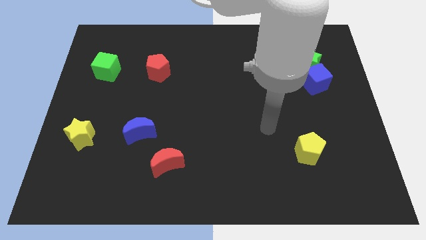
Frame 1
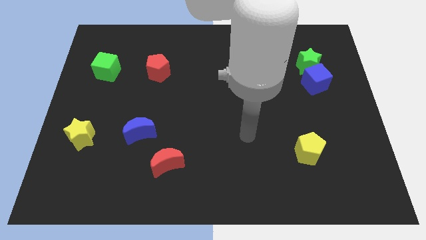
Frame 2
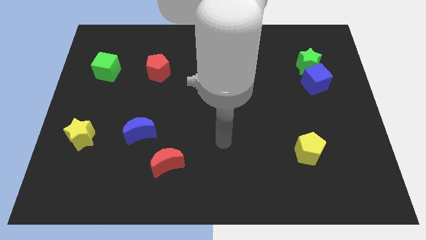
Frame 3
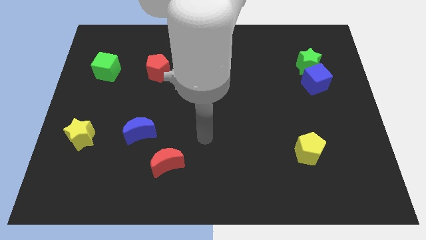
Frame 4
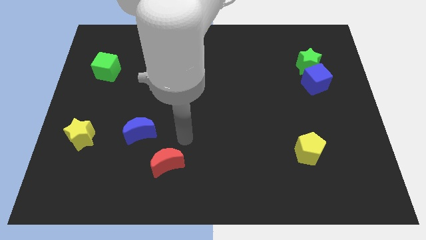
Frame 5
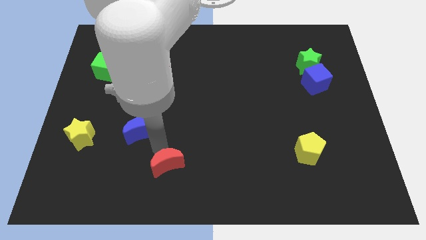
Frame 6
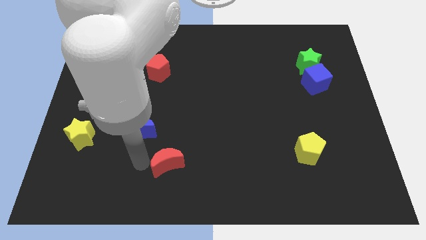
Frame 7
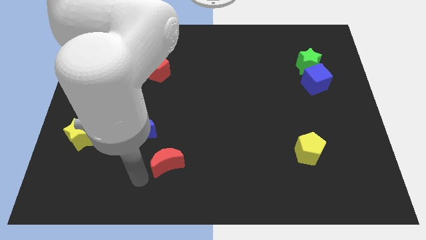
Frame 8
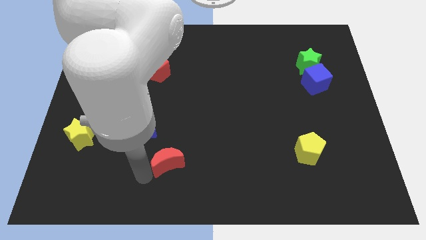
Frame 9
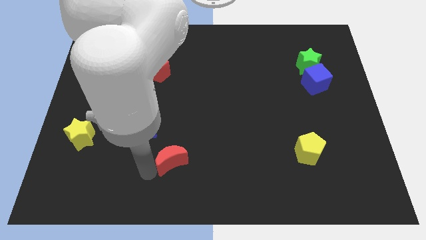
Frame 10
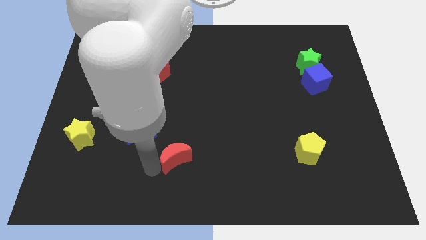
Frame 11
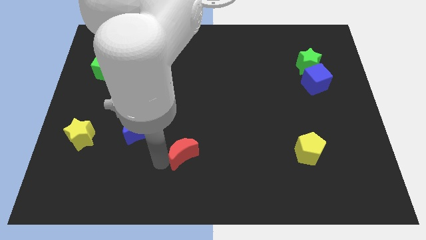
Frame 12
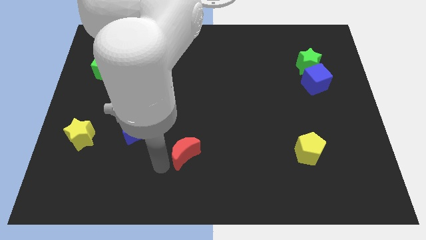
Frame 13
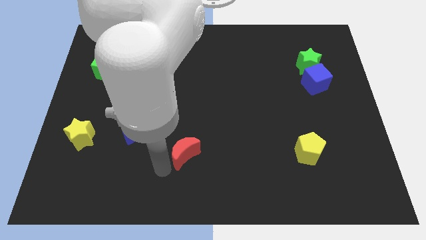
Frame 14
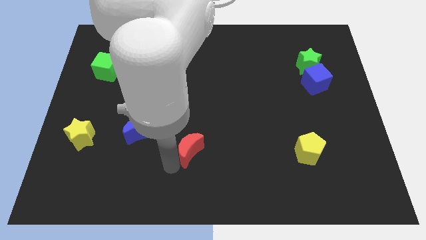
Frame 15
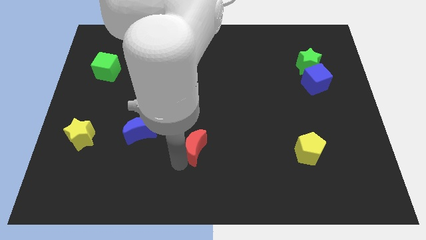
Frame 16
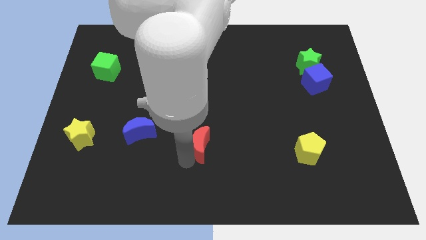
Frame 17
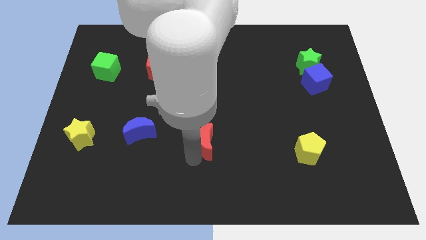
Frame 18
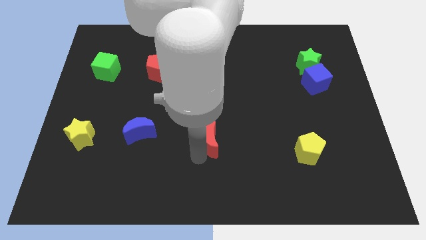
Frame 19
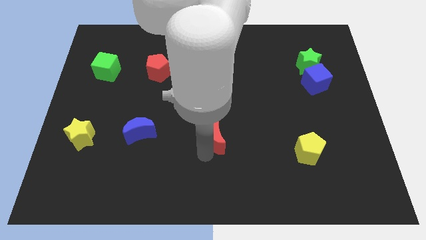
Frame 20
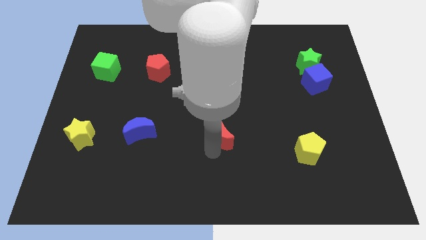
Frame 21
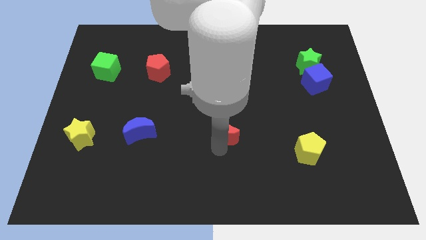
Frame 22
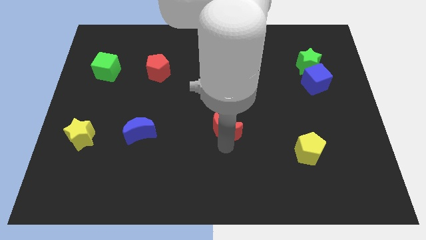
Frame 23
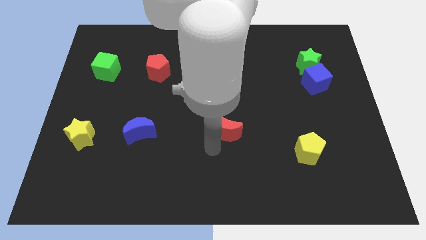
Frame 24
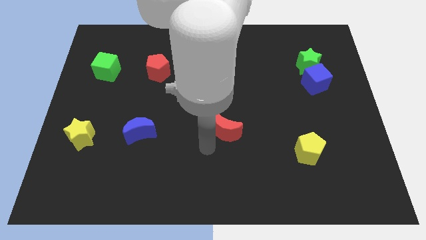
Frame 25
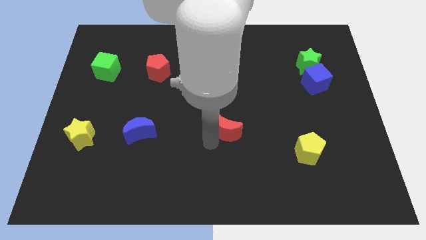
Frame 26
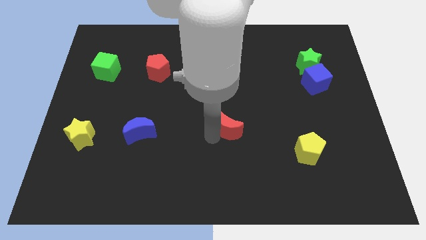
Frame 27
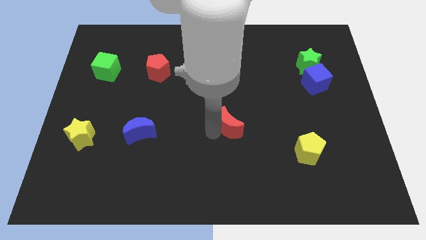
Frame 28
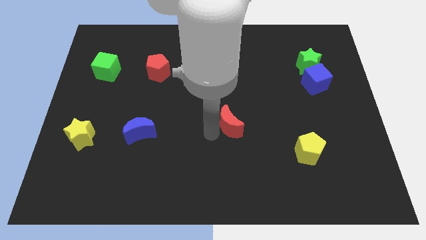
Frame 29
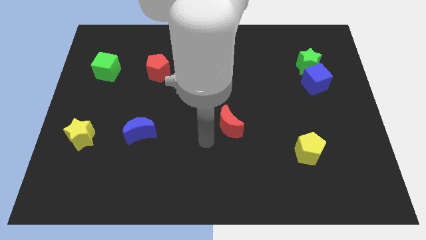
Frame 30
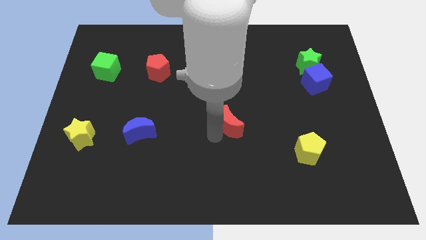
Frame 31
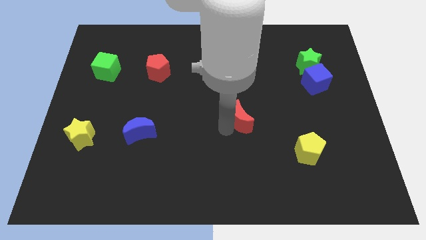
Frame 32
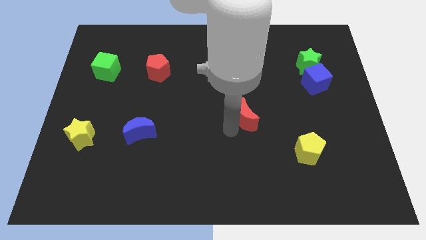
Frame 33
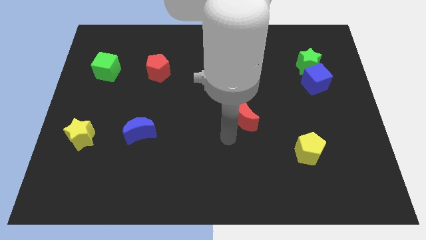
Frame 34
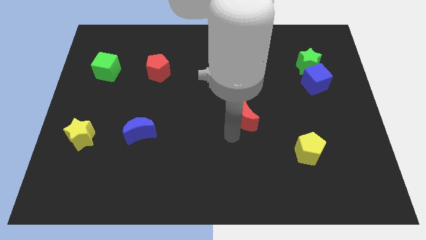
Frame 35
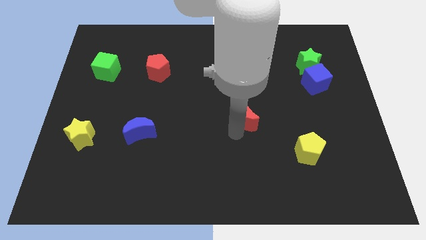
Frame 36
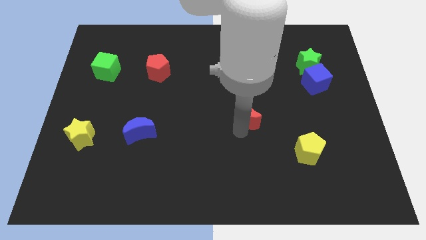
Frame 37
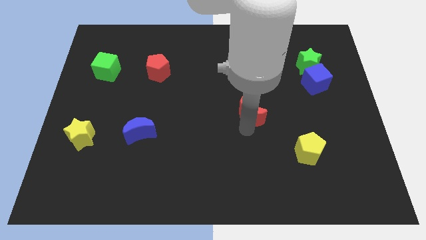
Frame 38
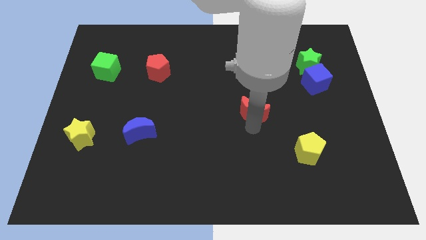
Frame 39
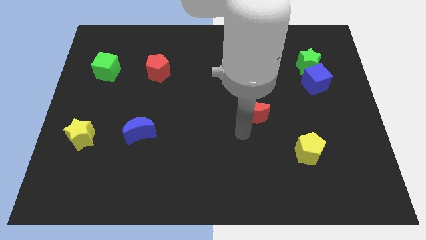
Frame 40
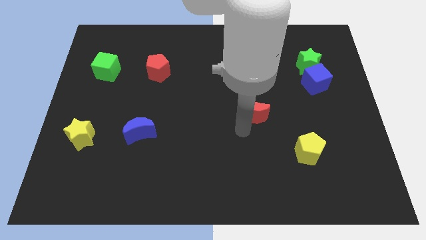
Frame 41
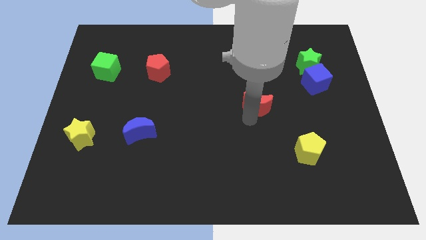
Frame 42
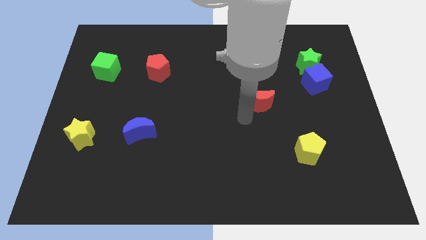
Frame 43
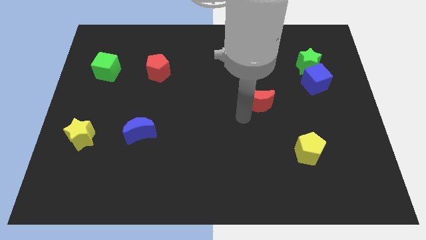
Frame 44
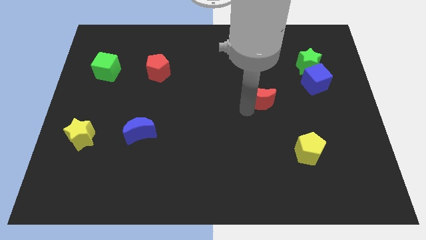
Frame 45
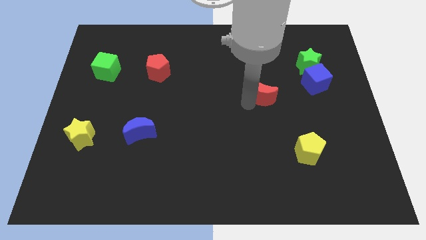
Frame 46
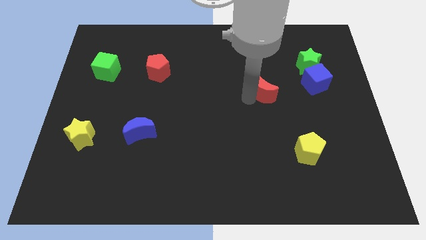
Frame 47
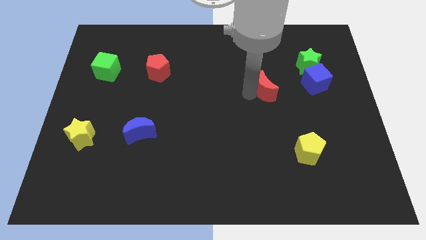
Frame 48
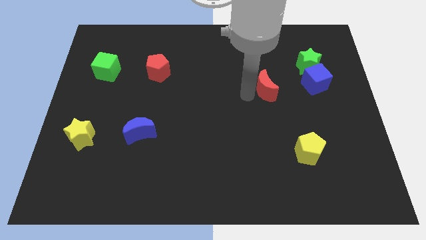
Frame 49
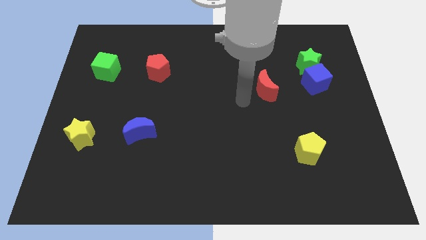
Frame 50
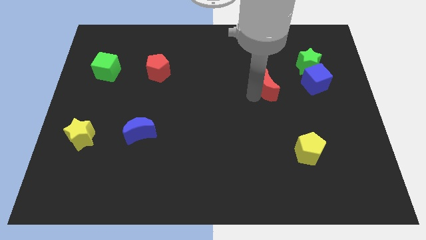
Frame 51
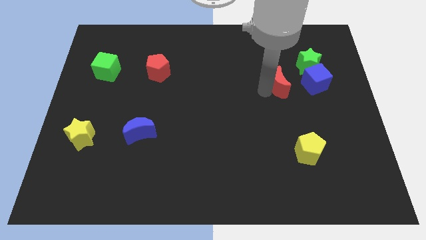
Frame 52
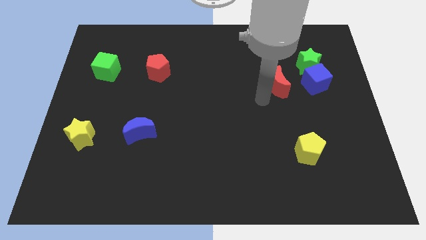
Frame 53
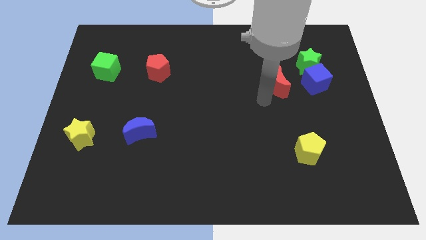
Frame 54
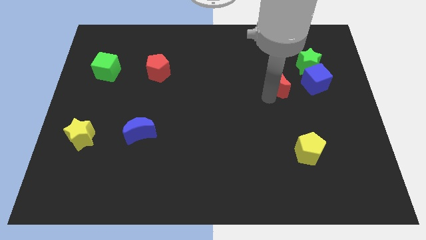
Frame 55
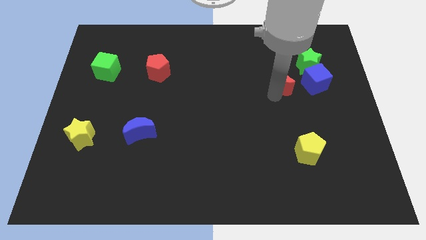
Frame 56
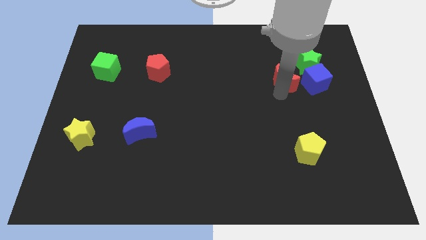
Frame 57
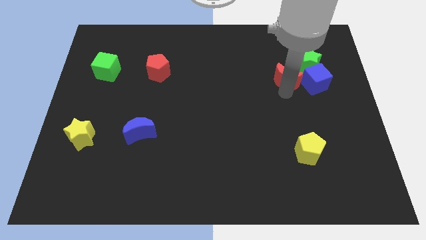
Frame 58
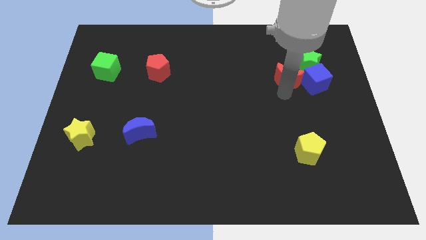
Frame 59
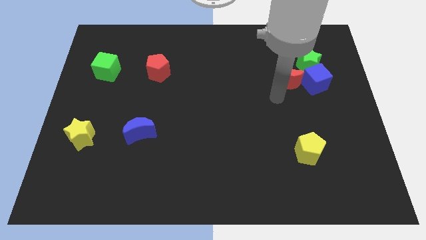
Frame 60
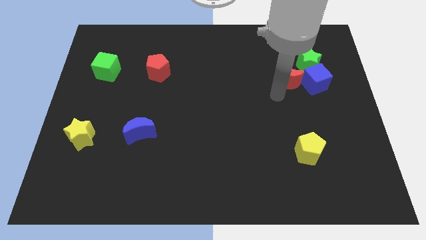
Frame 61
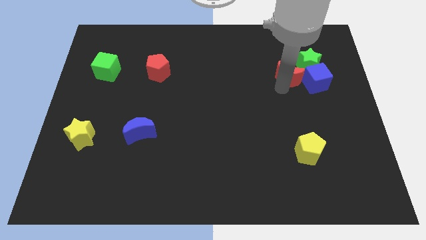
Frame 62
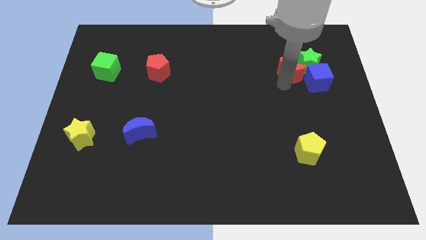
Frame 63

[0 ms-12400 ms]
put the red moon close to the green star

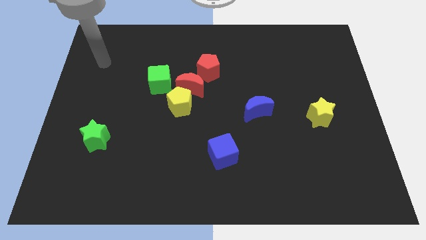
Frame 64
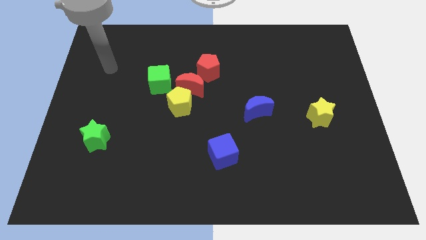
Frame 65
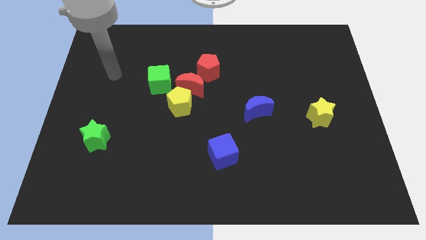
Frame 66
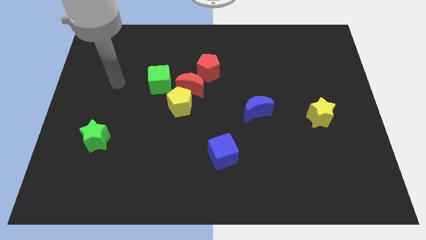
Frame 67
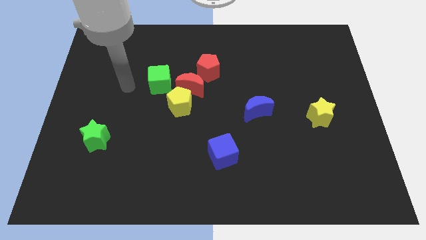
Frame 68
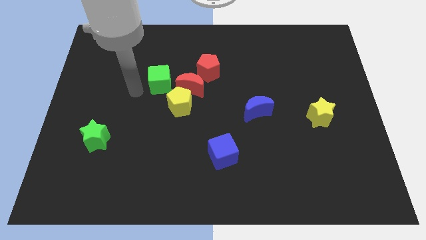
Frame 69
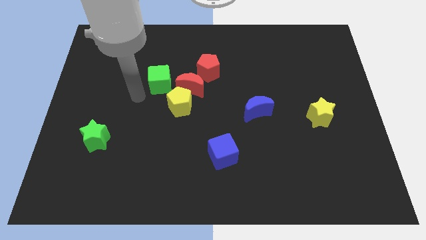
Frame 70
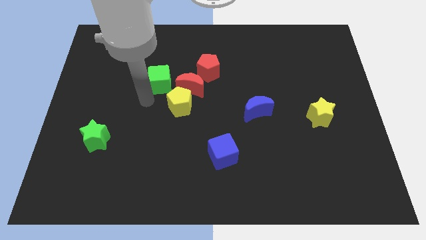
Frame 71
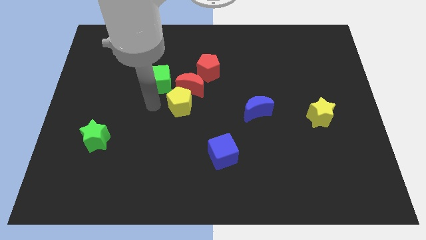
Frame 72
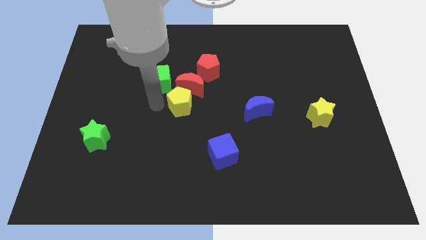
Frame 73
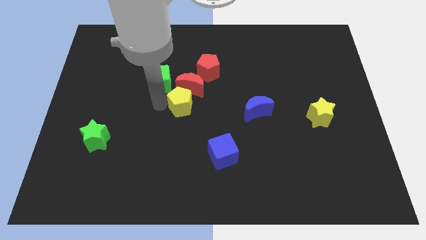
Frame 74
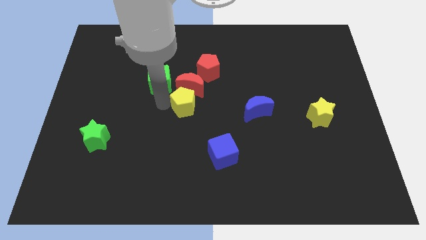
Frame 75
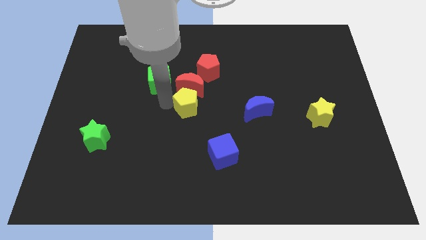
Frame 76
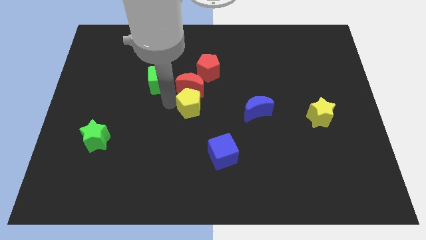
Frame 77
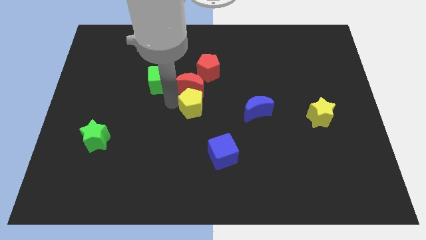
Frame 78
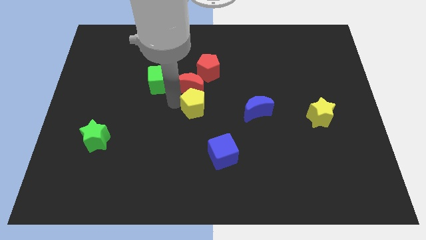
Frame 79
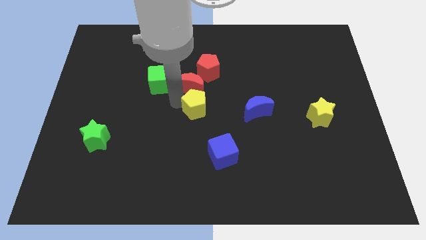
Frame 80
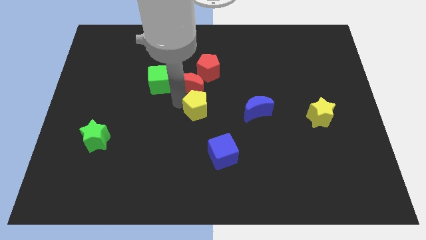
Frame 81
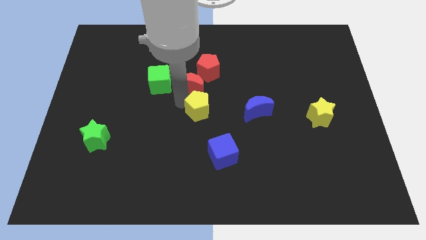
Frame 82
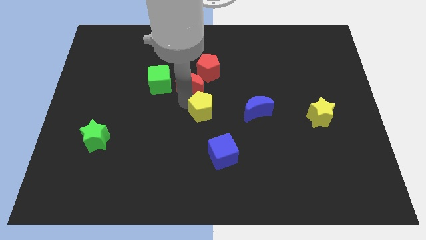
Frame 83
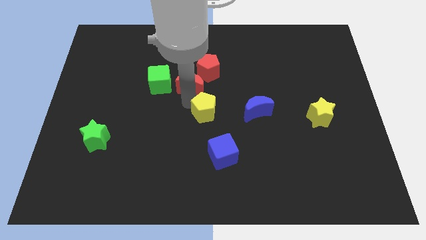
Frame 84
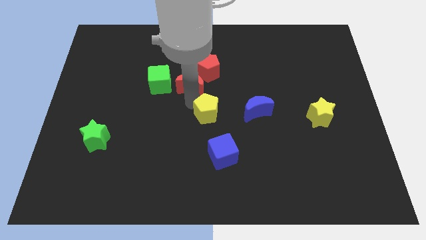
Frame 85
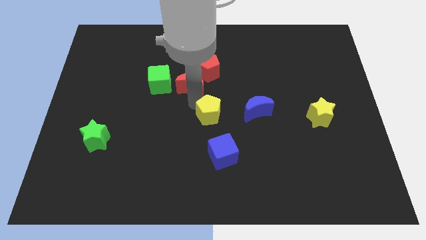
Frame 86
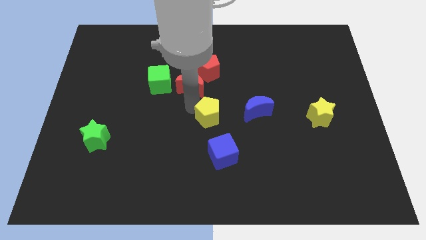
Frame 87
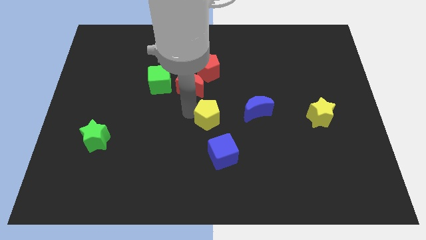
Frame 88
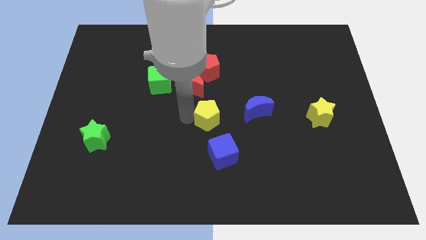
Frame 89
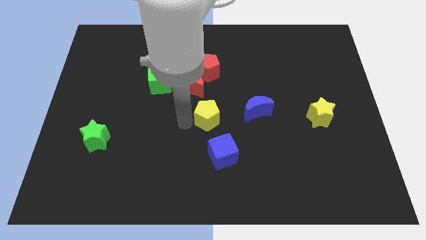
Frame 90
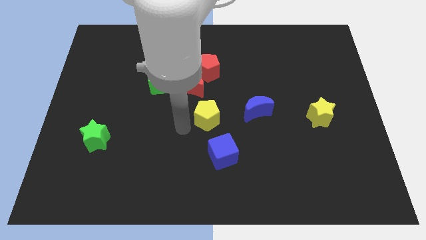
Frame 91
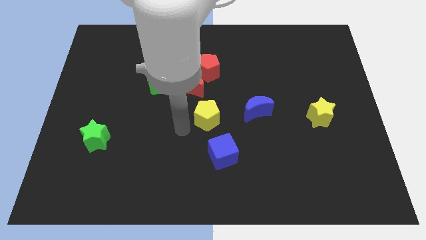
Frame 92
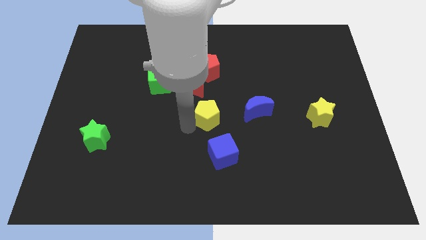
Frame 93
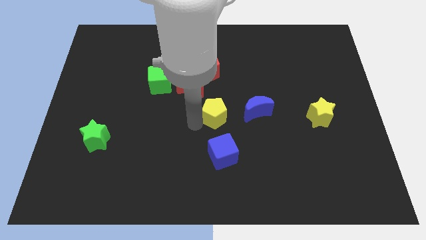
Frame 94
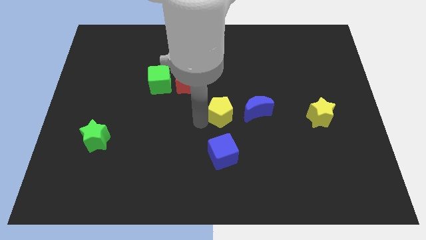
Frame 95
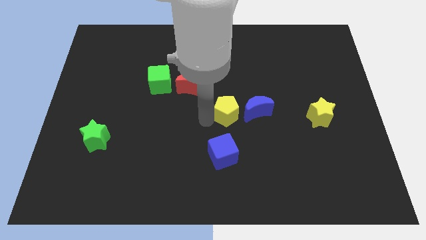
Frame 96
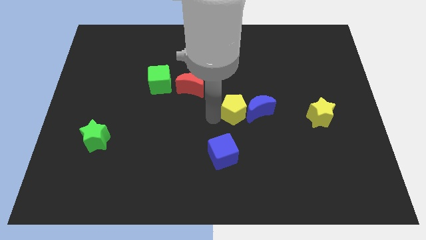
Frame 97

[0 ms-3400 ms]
push the yellow pentagon next to the blue moon
